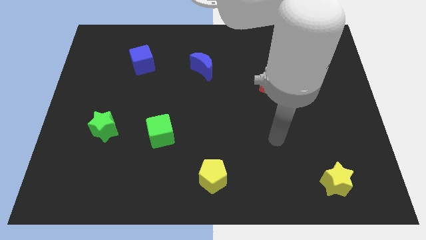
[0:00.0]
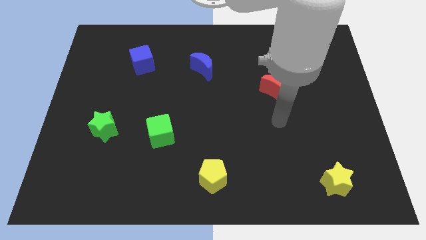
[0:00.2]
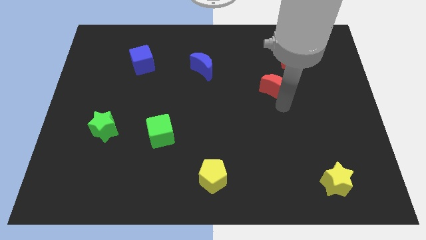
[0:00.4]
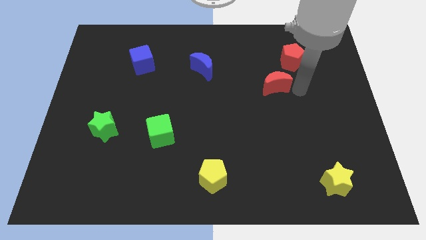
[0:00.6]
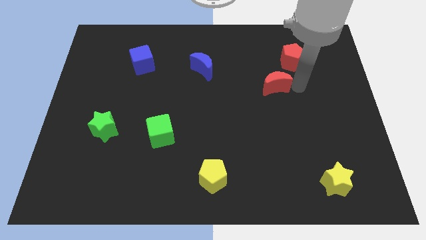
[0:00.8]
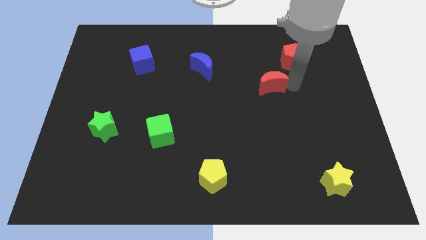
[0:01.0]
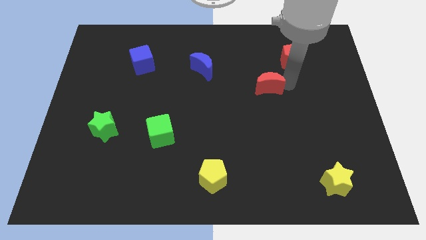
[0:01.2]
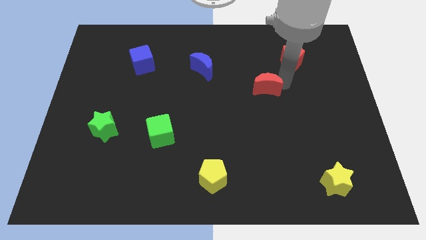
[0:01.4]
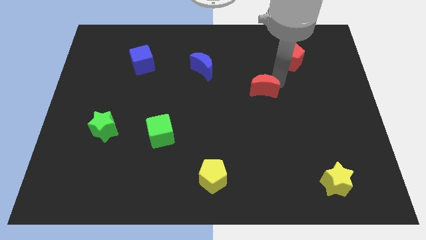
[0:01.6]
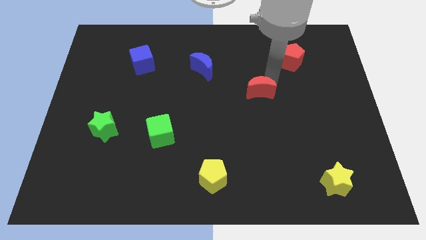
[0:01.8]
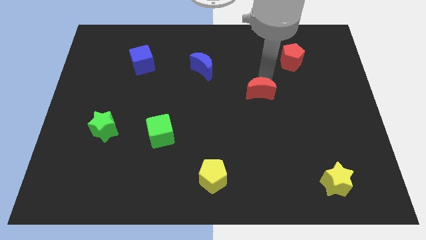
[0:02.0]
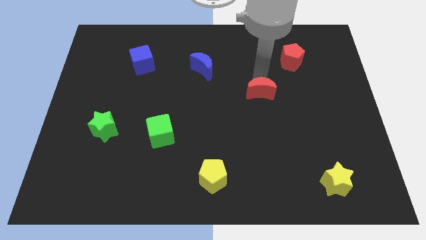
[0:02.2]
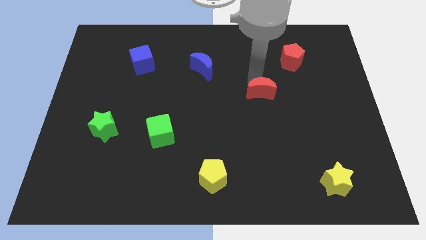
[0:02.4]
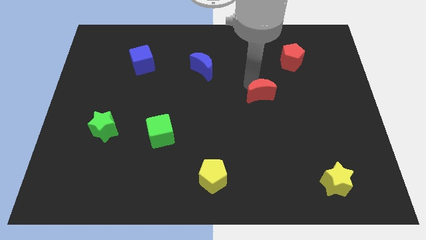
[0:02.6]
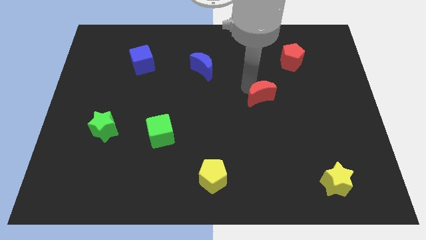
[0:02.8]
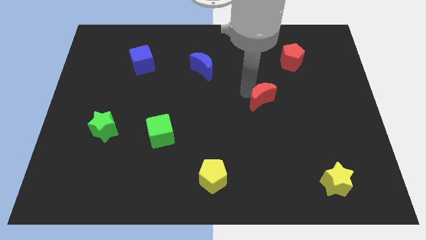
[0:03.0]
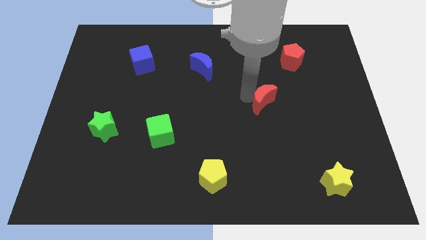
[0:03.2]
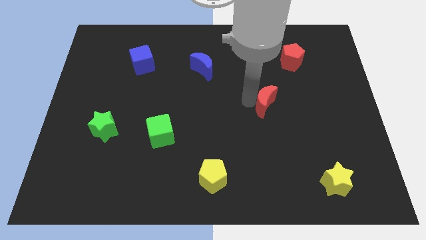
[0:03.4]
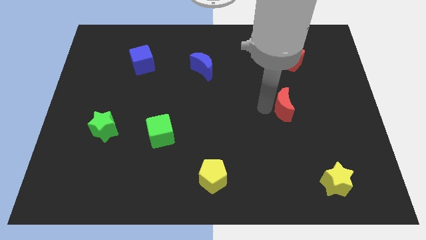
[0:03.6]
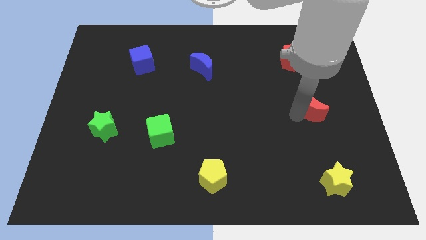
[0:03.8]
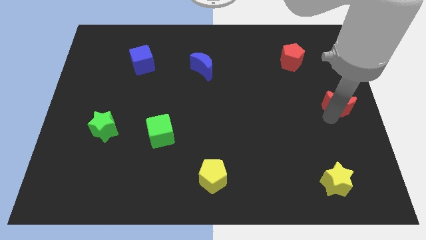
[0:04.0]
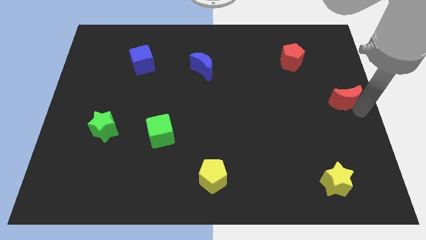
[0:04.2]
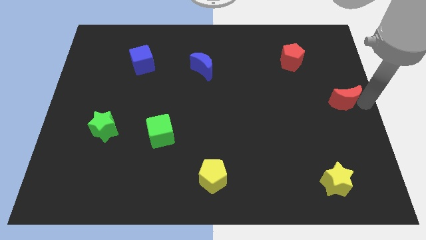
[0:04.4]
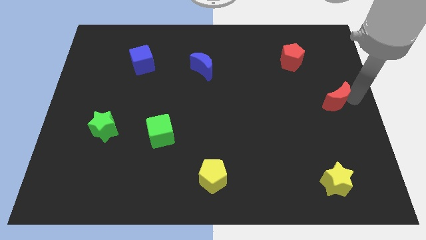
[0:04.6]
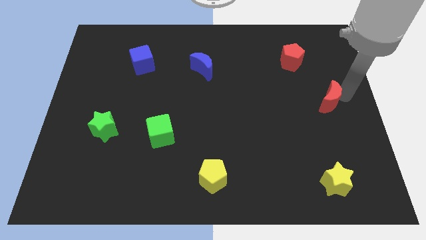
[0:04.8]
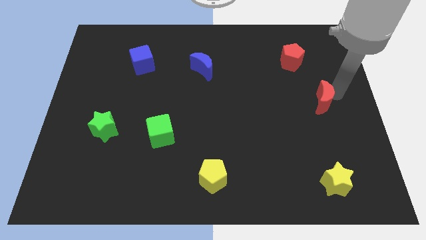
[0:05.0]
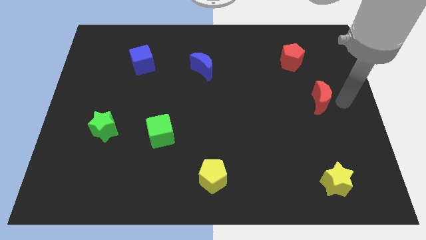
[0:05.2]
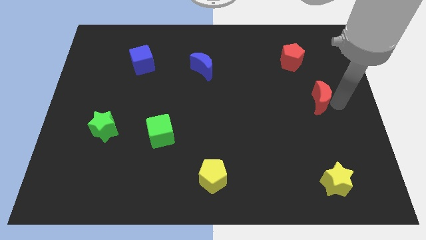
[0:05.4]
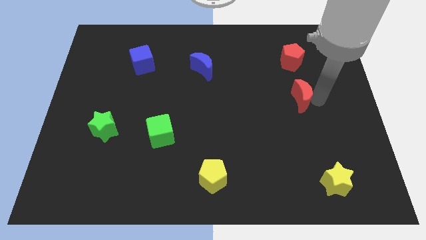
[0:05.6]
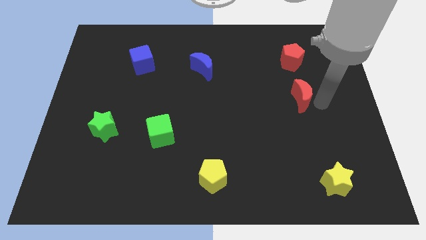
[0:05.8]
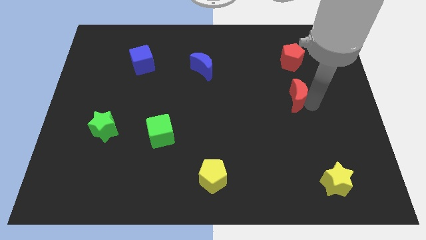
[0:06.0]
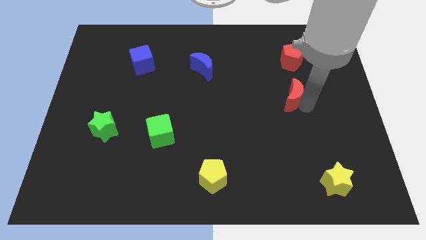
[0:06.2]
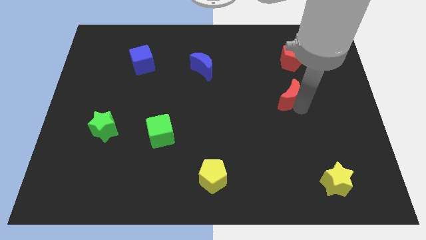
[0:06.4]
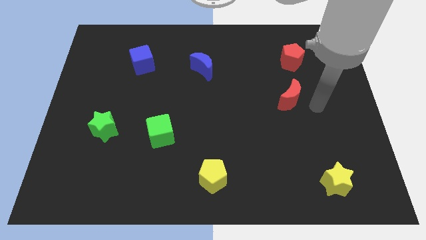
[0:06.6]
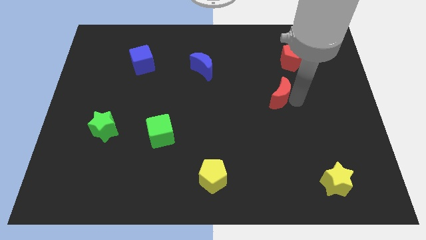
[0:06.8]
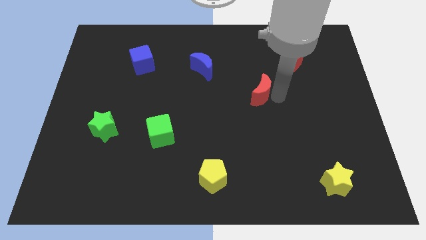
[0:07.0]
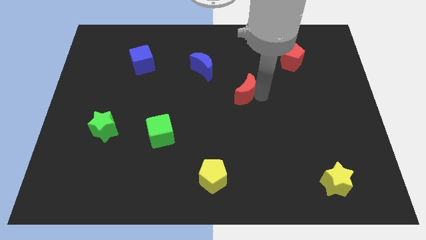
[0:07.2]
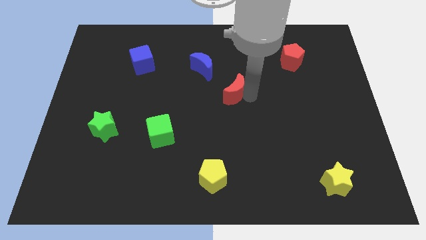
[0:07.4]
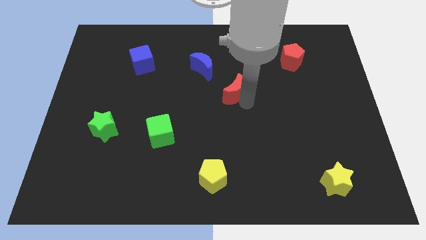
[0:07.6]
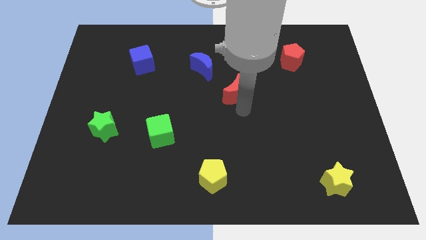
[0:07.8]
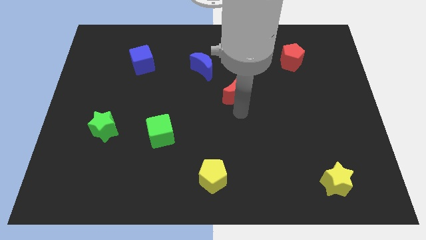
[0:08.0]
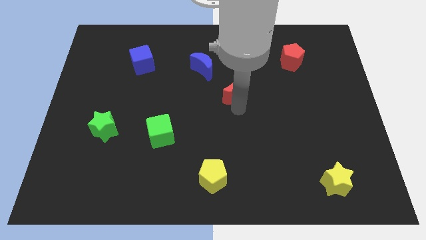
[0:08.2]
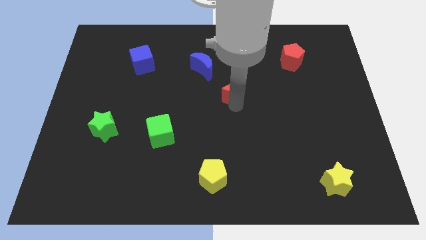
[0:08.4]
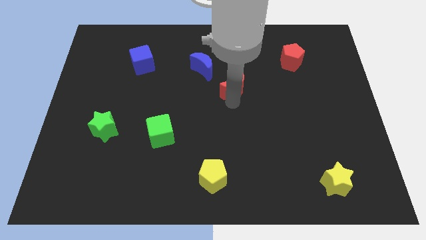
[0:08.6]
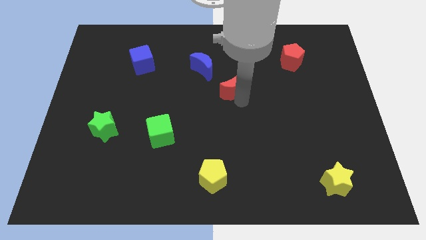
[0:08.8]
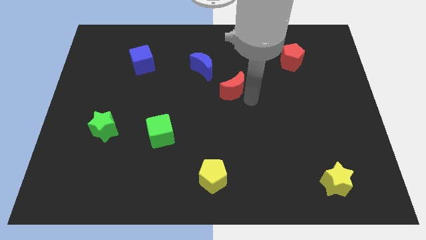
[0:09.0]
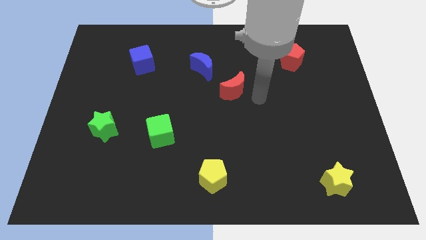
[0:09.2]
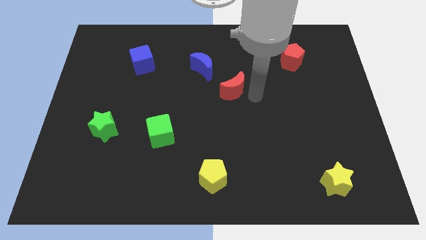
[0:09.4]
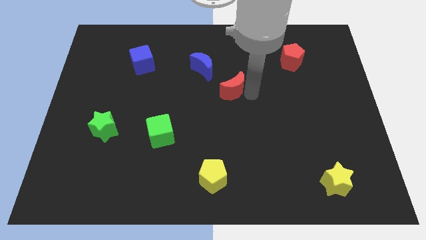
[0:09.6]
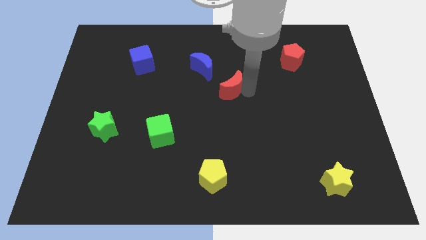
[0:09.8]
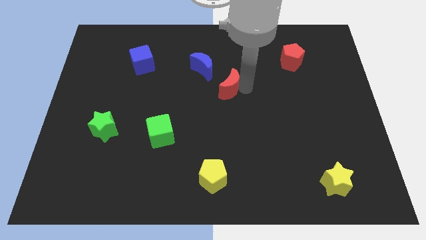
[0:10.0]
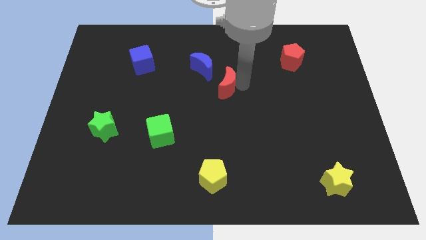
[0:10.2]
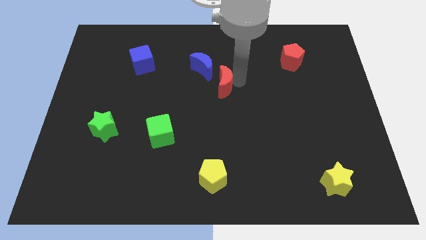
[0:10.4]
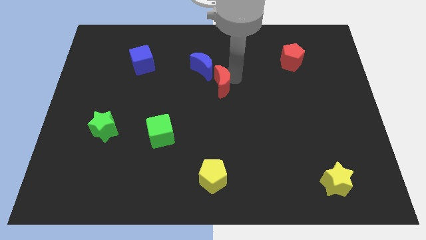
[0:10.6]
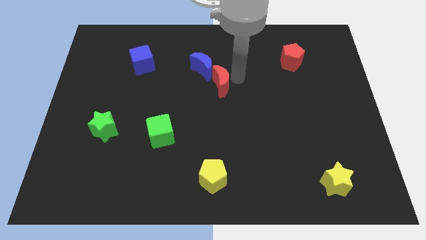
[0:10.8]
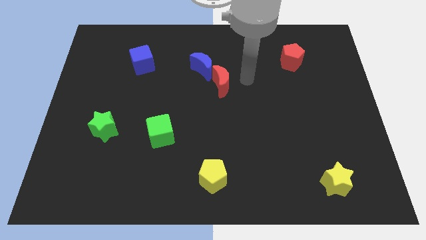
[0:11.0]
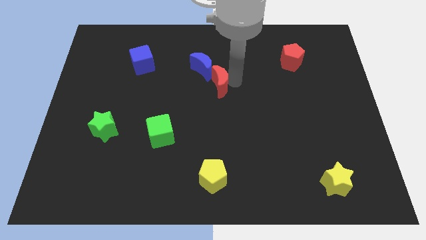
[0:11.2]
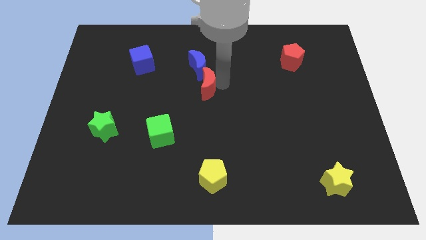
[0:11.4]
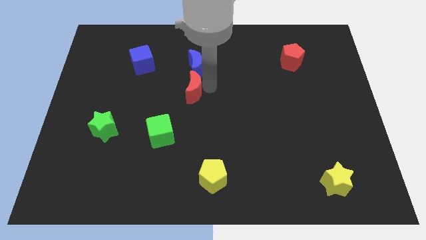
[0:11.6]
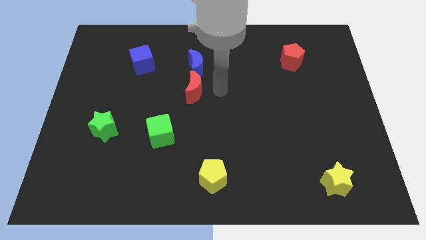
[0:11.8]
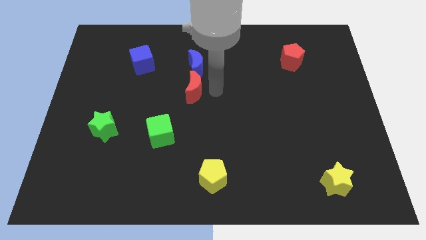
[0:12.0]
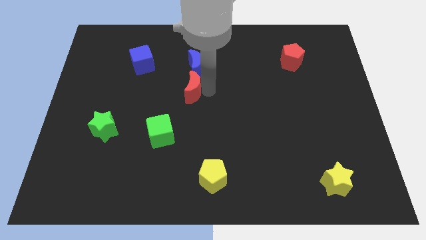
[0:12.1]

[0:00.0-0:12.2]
slide the red moon left

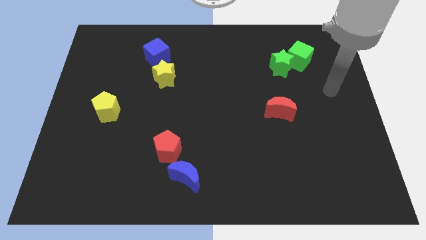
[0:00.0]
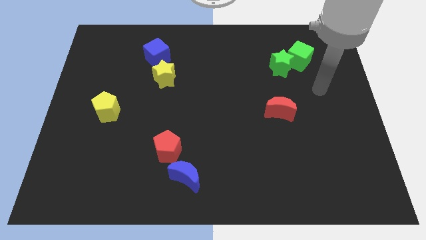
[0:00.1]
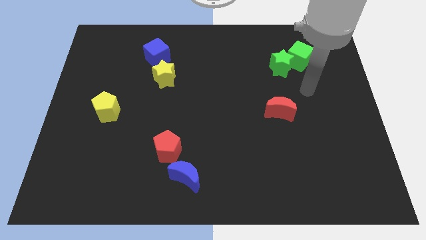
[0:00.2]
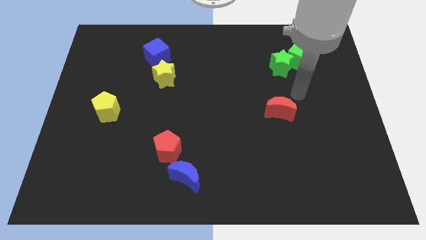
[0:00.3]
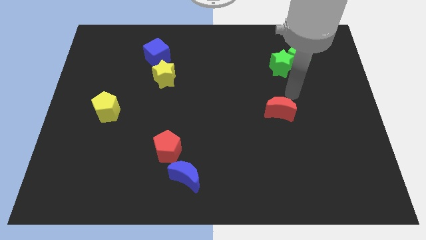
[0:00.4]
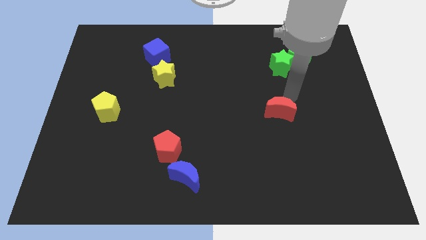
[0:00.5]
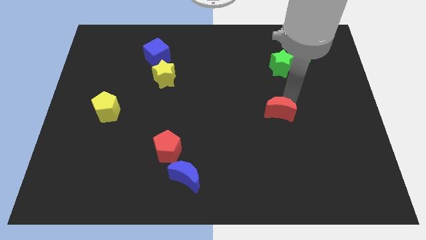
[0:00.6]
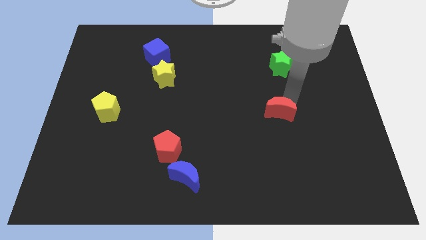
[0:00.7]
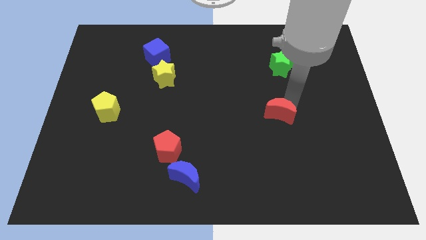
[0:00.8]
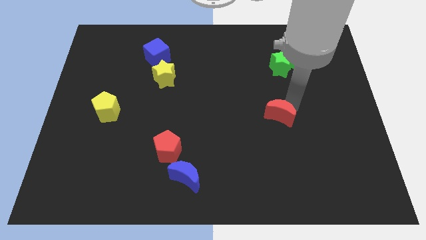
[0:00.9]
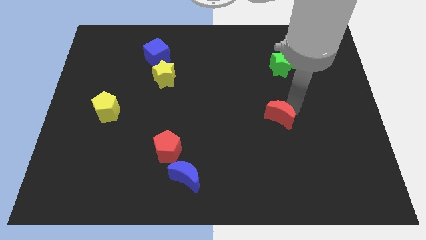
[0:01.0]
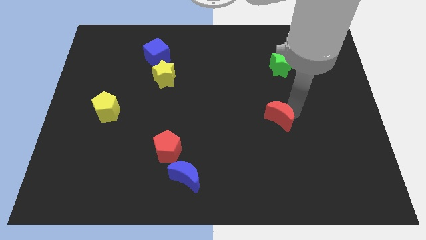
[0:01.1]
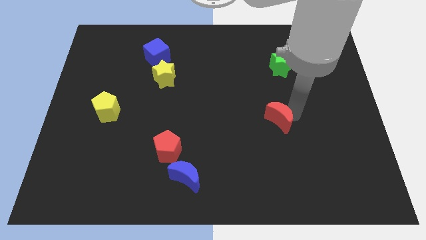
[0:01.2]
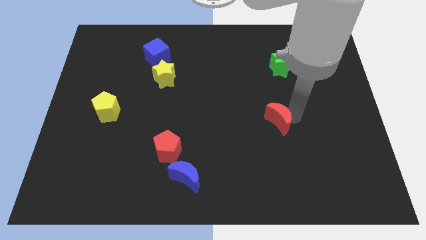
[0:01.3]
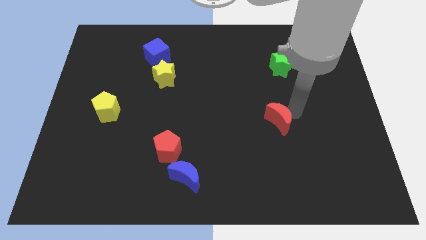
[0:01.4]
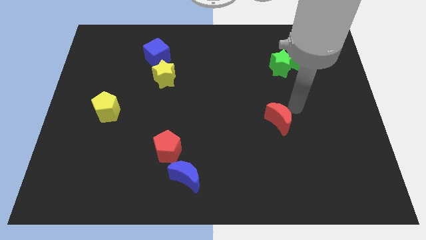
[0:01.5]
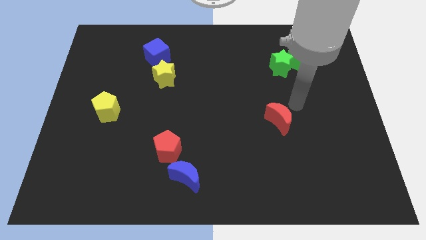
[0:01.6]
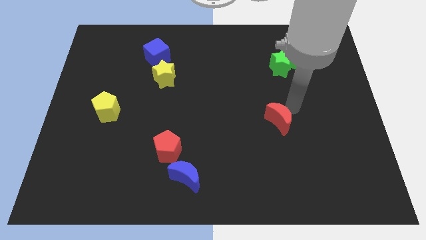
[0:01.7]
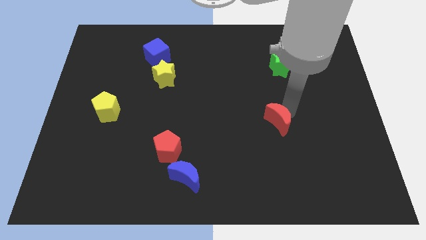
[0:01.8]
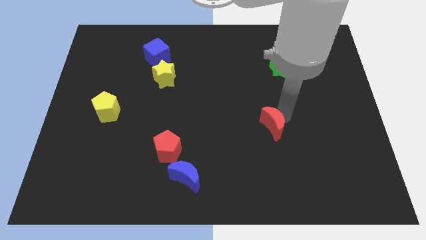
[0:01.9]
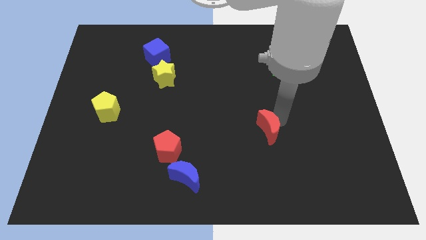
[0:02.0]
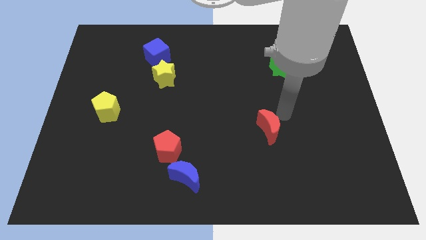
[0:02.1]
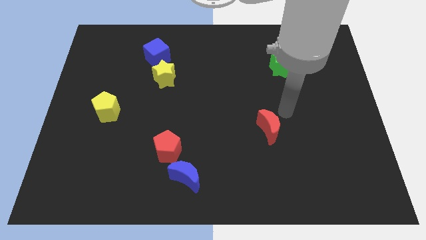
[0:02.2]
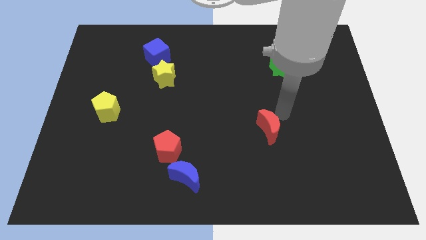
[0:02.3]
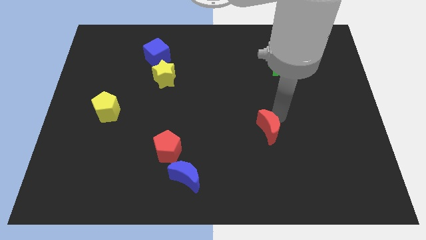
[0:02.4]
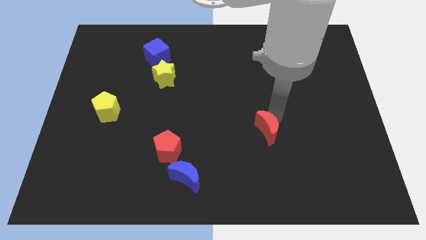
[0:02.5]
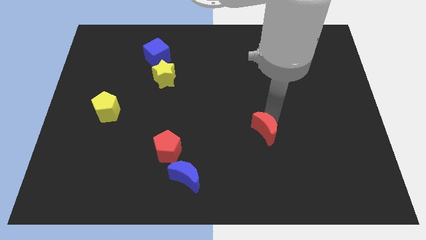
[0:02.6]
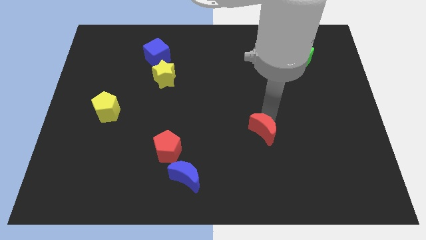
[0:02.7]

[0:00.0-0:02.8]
slide the red moon downwards and to the left a little bit
